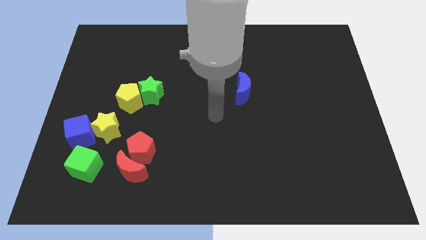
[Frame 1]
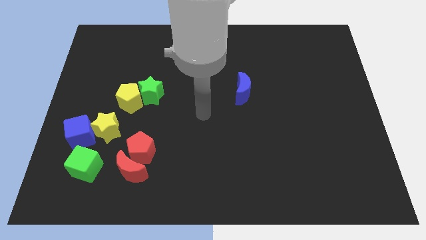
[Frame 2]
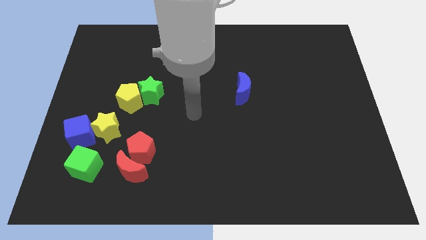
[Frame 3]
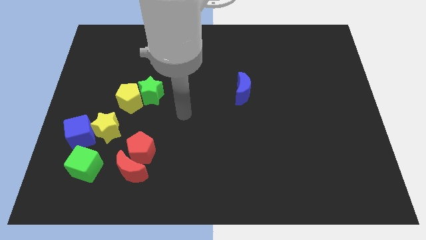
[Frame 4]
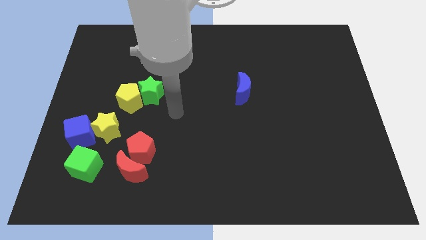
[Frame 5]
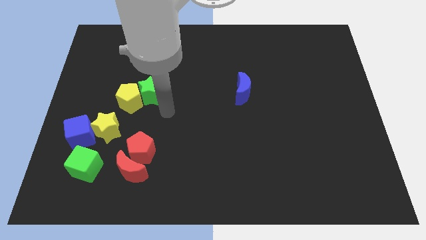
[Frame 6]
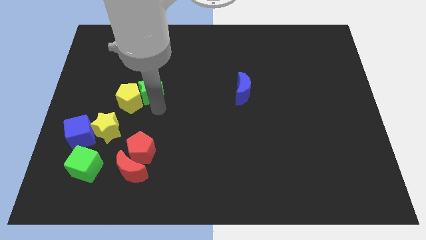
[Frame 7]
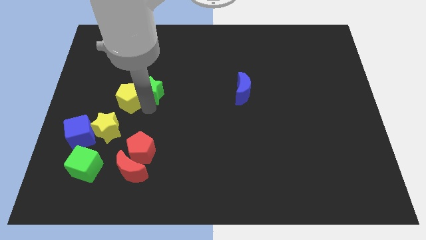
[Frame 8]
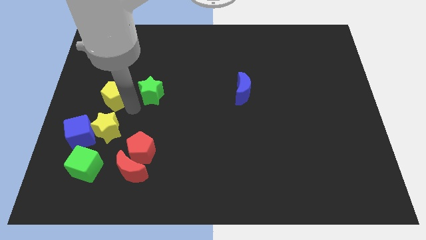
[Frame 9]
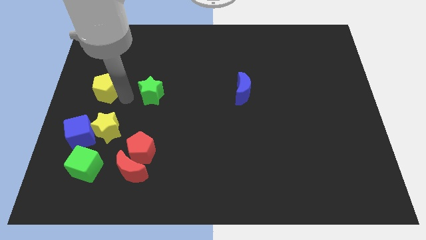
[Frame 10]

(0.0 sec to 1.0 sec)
move the green star away from the yellow pentagon

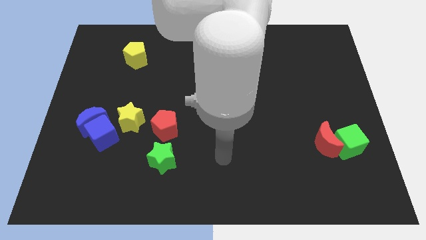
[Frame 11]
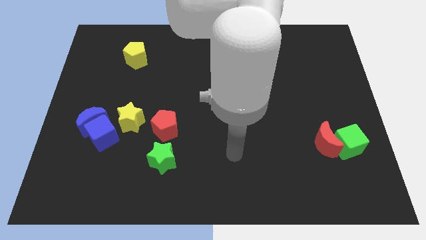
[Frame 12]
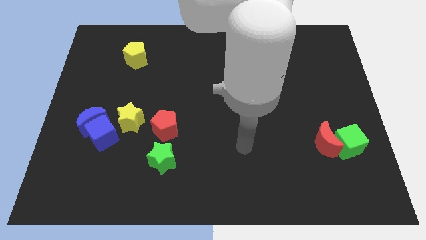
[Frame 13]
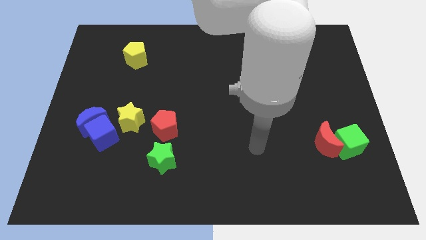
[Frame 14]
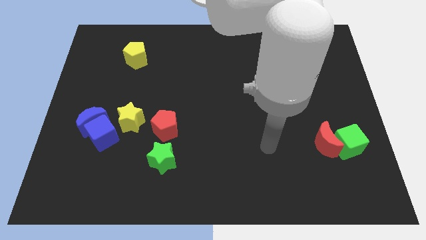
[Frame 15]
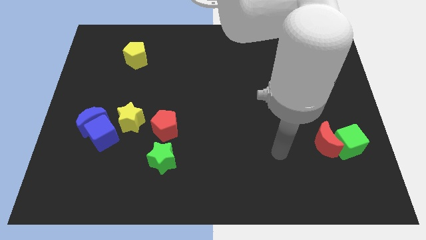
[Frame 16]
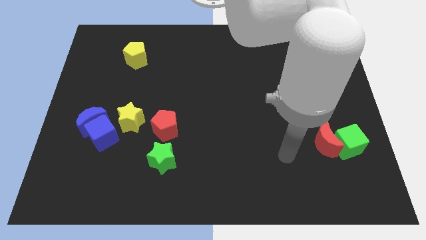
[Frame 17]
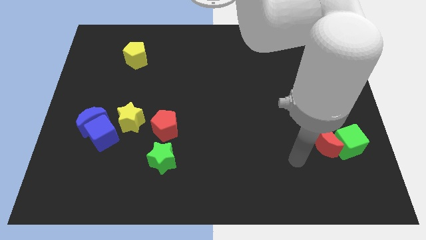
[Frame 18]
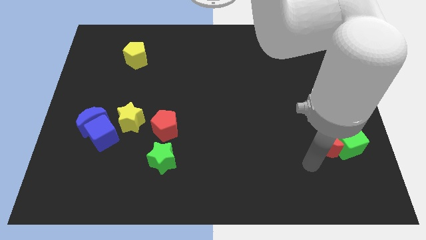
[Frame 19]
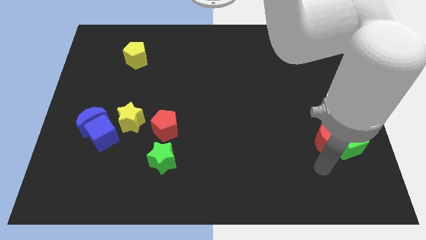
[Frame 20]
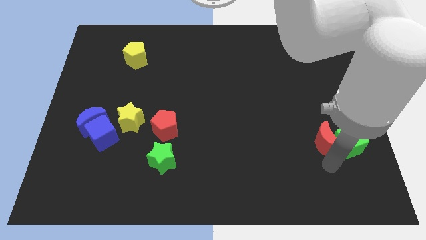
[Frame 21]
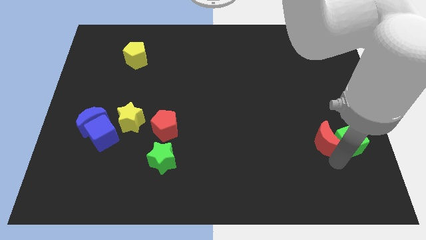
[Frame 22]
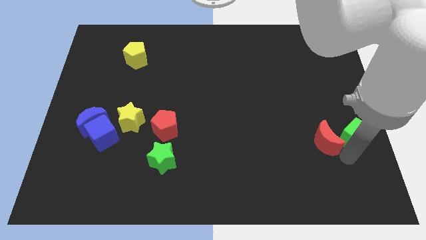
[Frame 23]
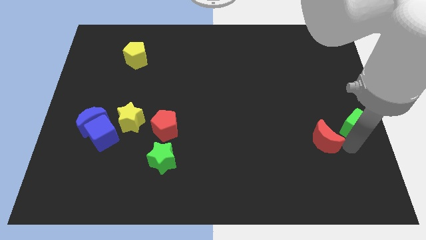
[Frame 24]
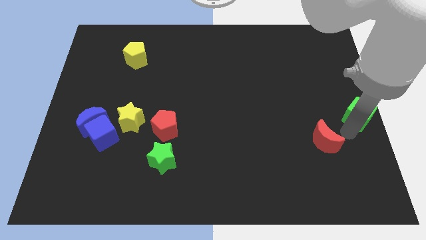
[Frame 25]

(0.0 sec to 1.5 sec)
separate the red moon from the green cube

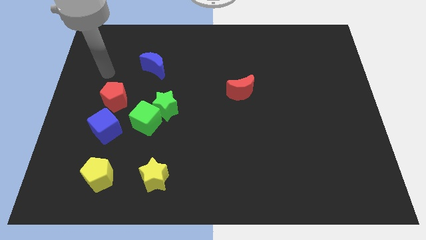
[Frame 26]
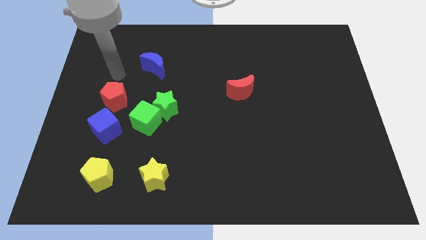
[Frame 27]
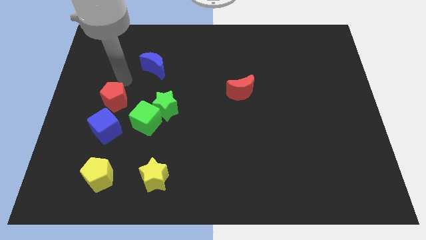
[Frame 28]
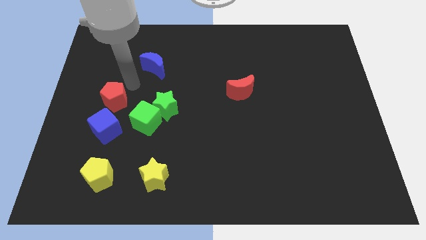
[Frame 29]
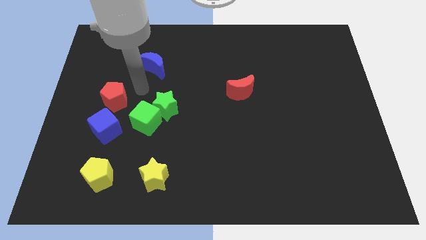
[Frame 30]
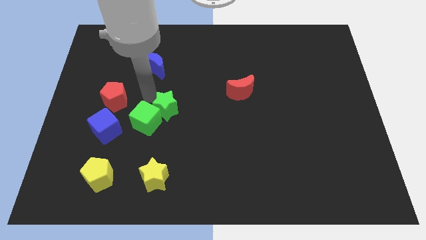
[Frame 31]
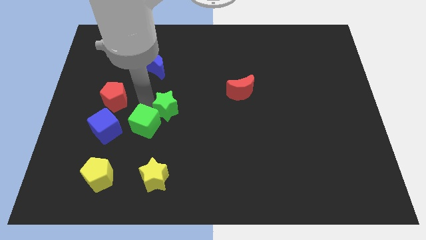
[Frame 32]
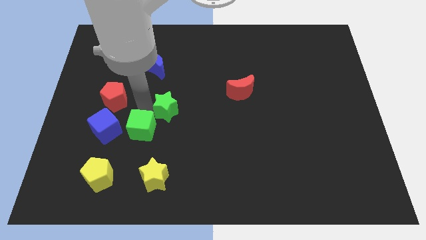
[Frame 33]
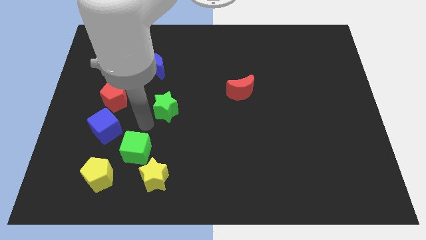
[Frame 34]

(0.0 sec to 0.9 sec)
move the green star away from the green cube

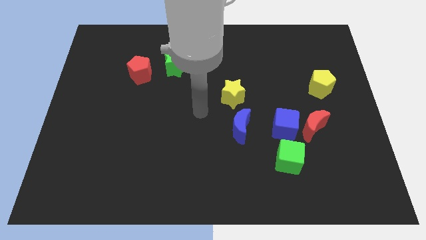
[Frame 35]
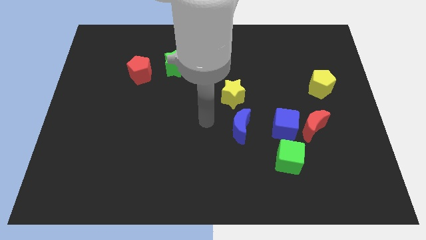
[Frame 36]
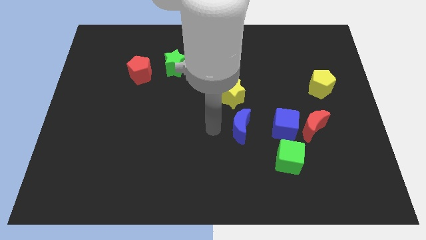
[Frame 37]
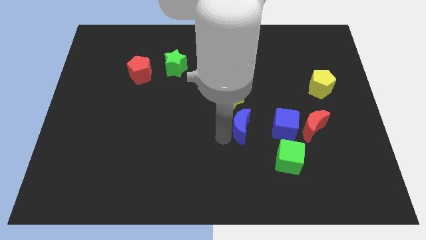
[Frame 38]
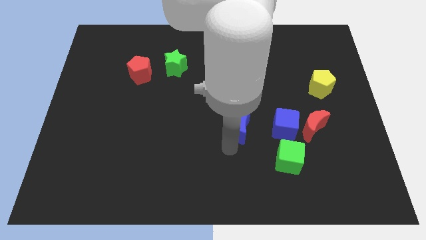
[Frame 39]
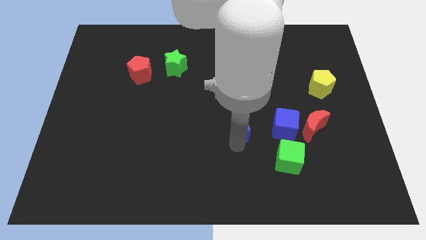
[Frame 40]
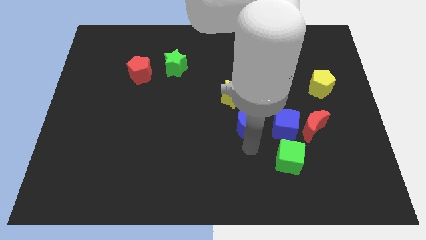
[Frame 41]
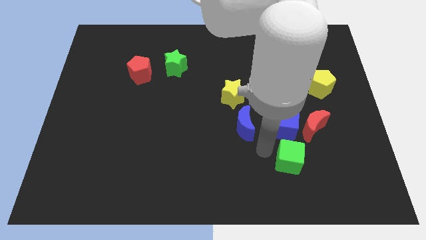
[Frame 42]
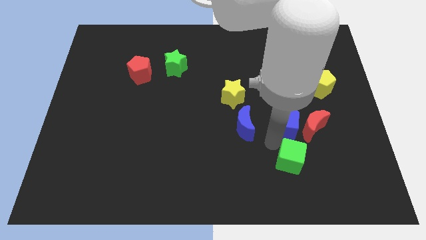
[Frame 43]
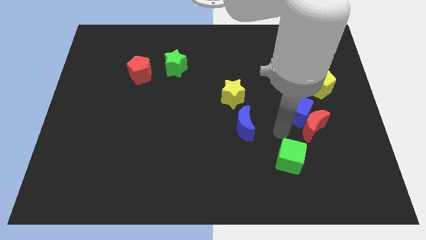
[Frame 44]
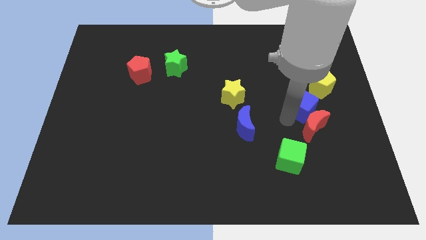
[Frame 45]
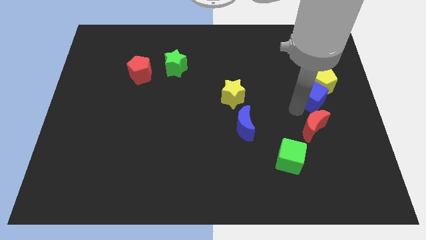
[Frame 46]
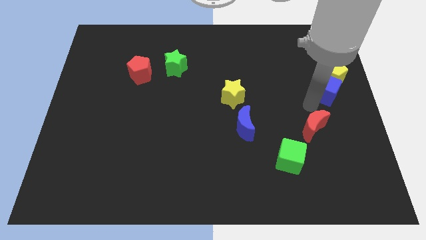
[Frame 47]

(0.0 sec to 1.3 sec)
pull the red moon apart from the blue cube

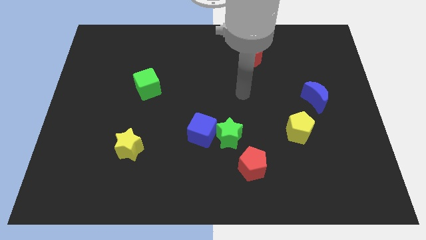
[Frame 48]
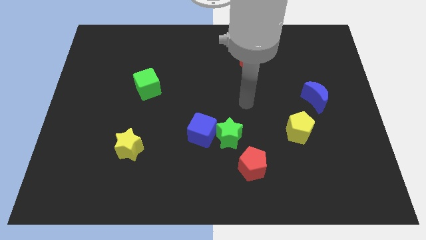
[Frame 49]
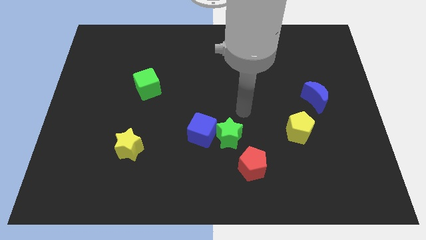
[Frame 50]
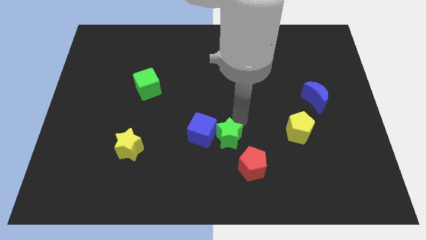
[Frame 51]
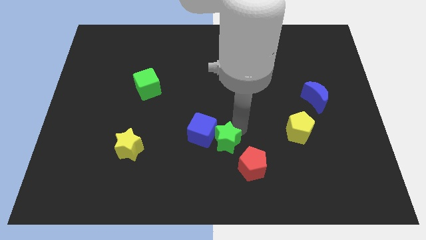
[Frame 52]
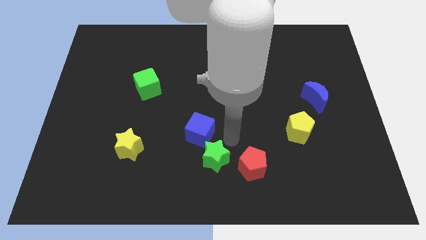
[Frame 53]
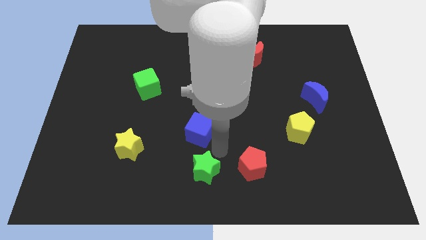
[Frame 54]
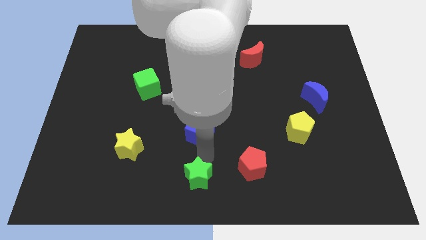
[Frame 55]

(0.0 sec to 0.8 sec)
separate the blue cube from the green star

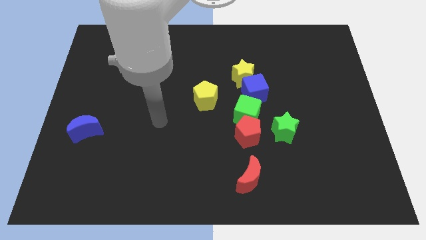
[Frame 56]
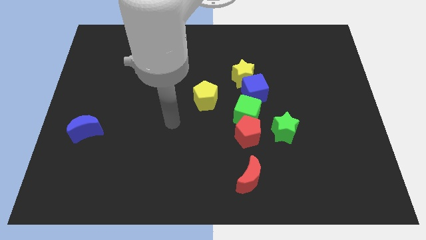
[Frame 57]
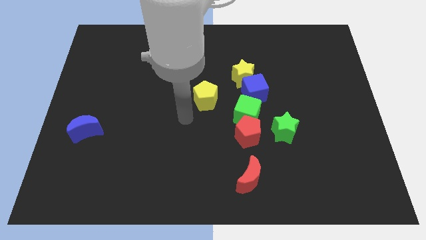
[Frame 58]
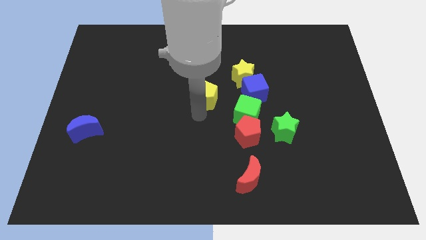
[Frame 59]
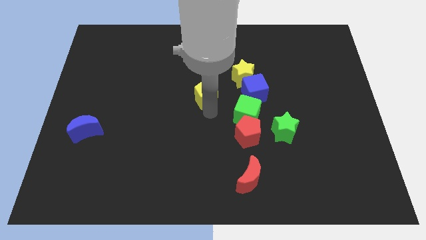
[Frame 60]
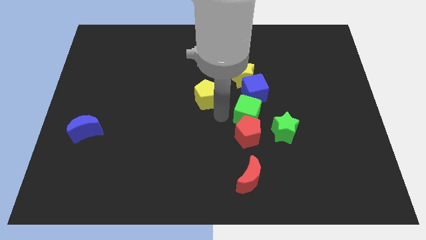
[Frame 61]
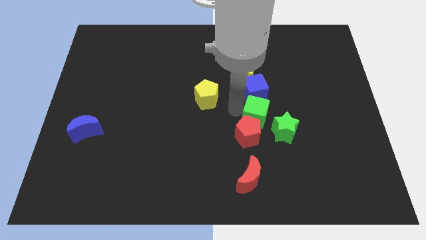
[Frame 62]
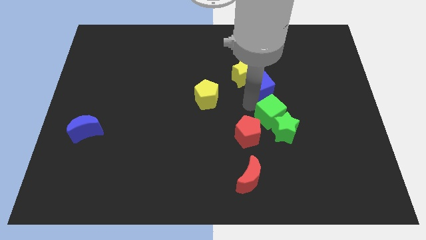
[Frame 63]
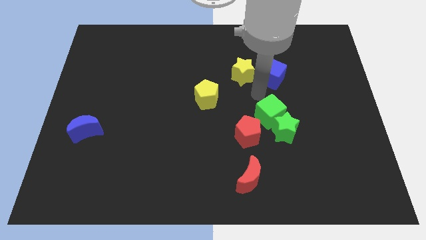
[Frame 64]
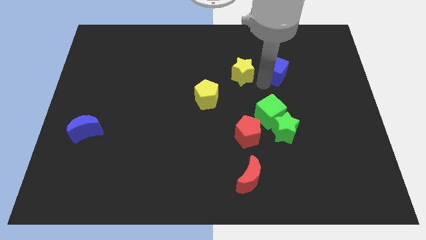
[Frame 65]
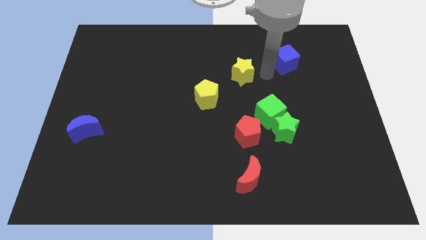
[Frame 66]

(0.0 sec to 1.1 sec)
separate the yellow star from the blue cube

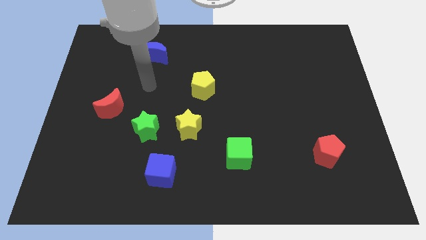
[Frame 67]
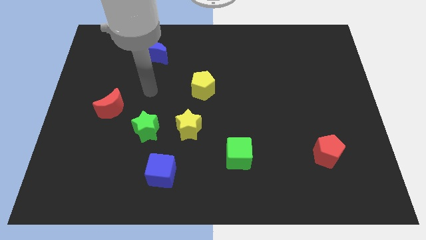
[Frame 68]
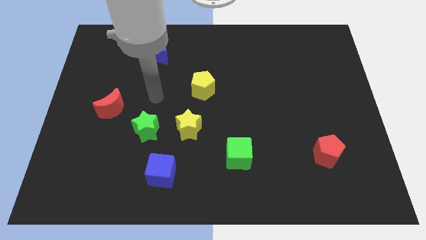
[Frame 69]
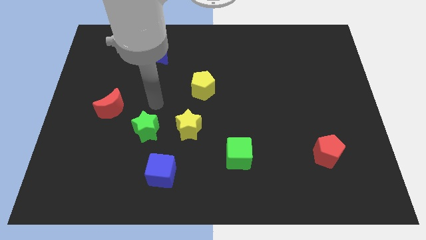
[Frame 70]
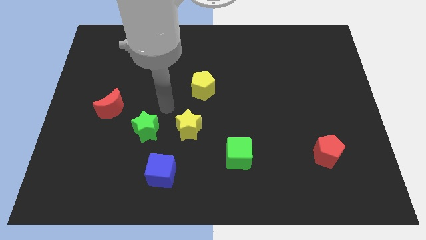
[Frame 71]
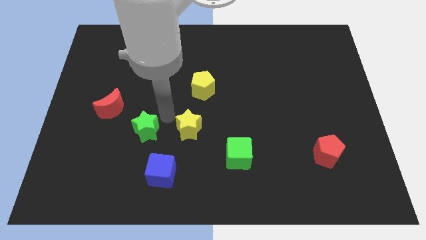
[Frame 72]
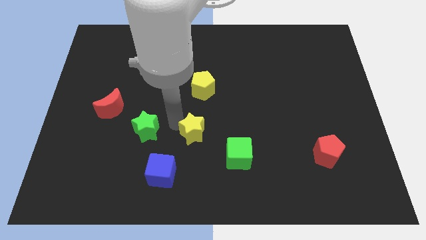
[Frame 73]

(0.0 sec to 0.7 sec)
pull the green star apart from the yellow star

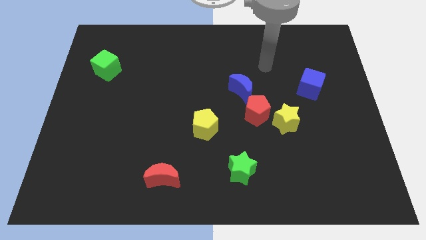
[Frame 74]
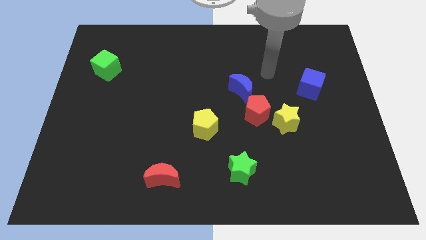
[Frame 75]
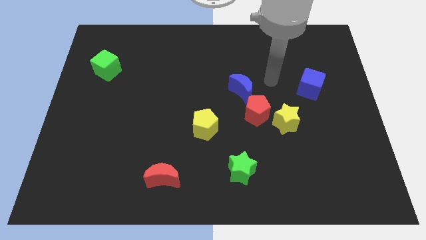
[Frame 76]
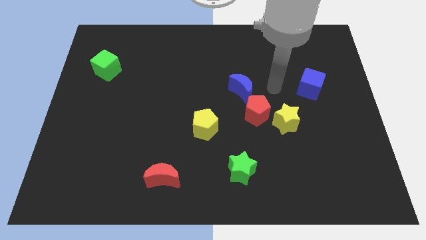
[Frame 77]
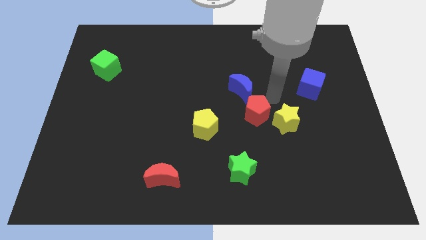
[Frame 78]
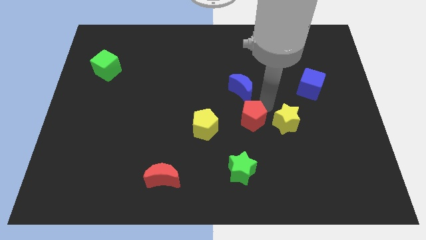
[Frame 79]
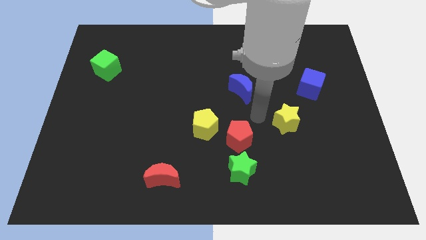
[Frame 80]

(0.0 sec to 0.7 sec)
pull the yellow star apart from the red pentagon

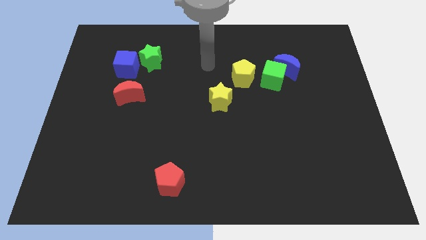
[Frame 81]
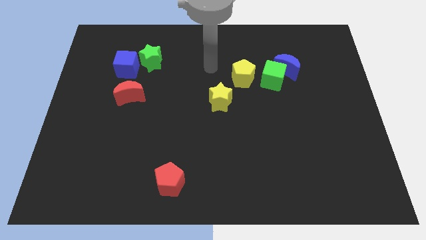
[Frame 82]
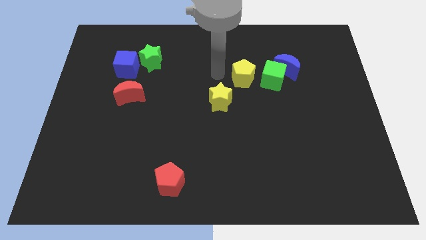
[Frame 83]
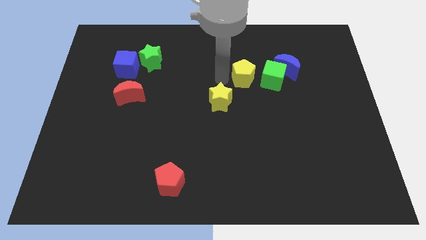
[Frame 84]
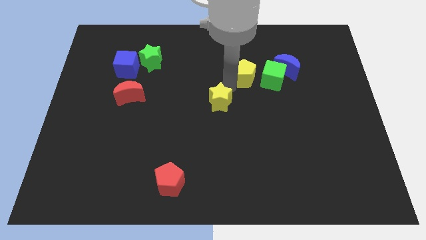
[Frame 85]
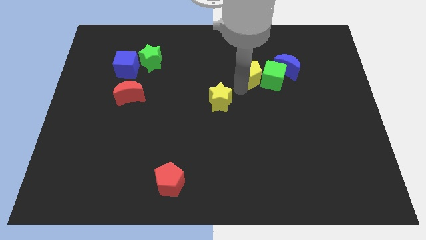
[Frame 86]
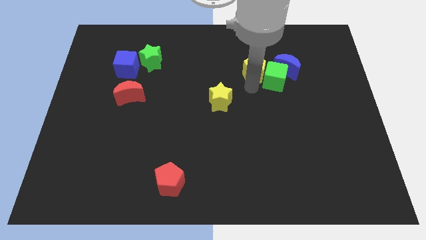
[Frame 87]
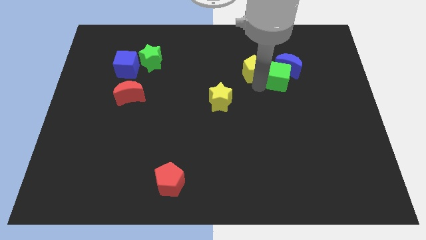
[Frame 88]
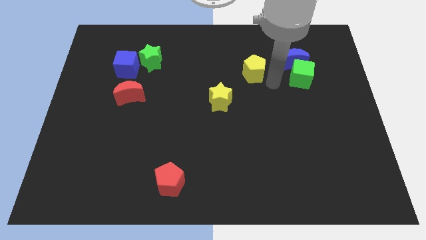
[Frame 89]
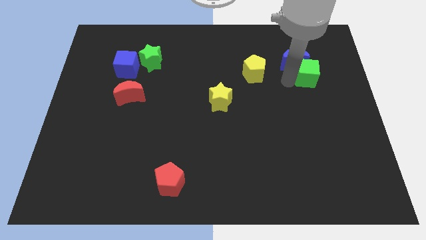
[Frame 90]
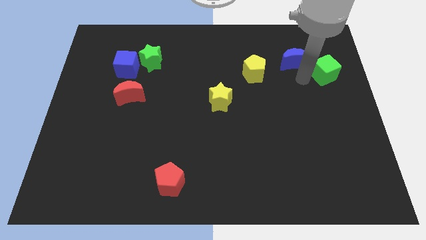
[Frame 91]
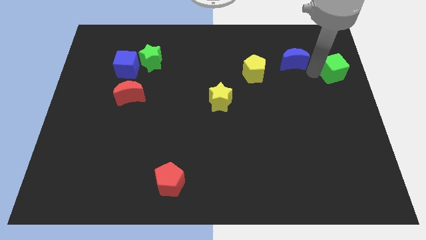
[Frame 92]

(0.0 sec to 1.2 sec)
separate the blue moon from the green cube

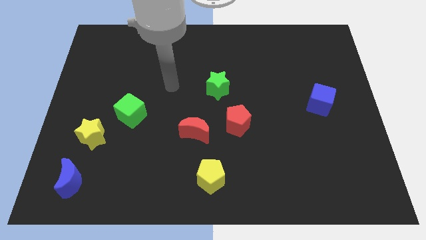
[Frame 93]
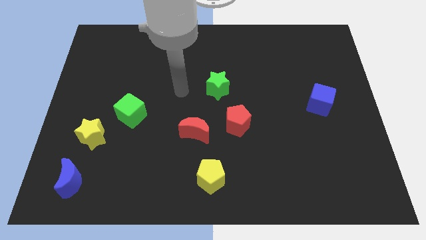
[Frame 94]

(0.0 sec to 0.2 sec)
separate the red moon from the red pentagon
